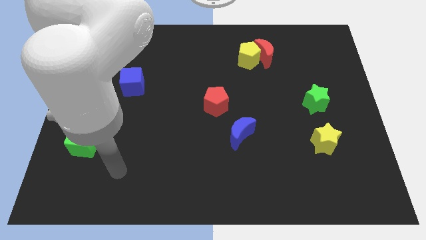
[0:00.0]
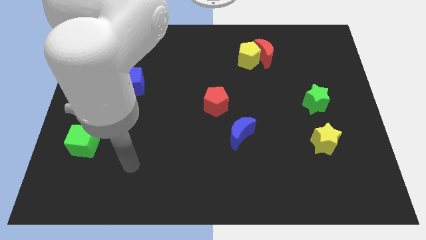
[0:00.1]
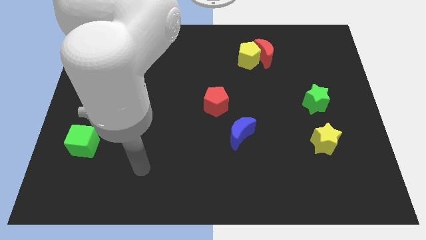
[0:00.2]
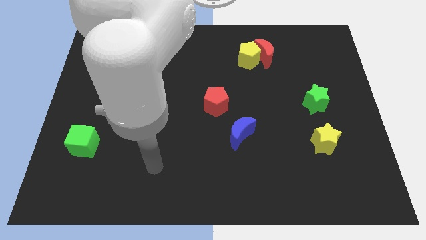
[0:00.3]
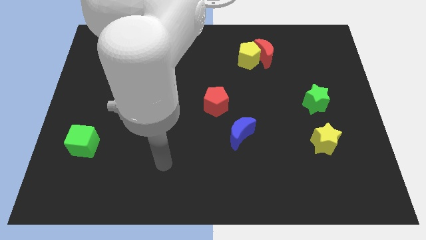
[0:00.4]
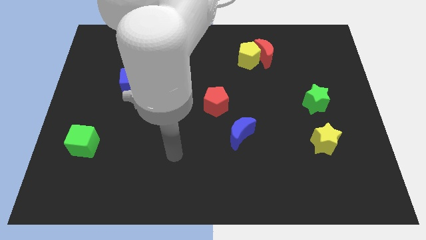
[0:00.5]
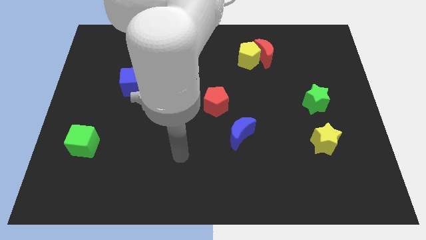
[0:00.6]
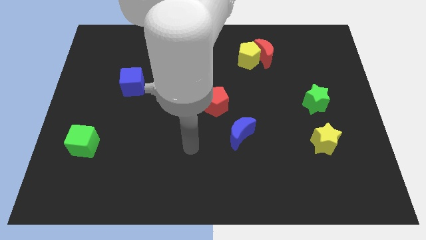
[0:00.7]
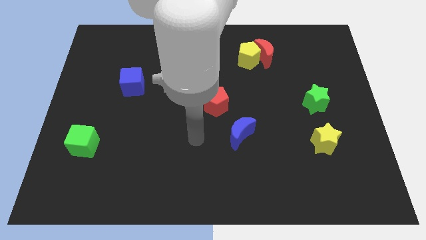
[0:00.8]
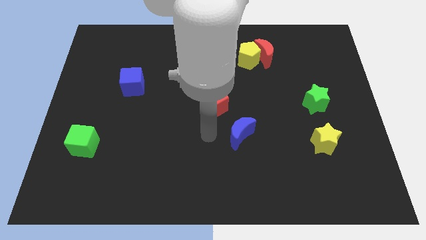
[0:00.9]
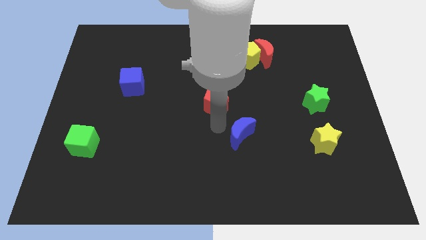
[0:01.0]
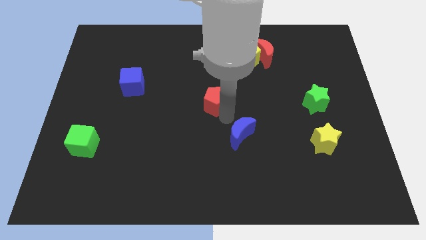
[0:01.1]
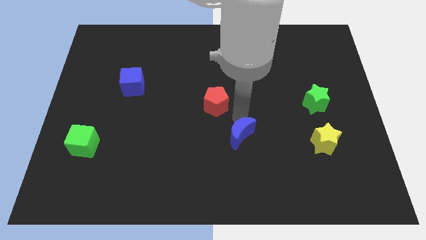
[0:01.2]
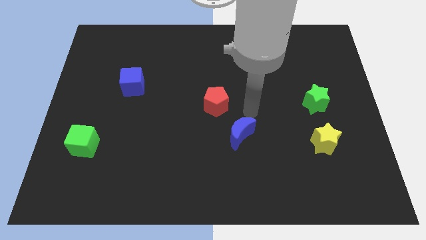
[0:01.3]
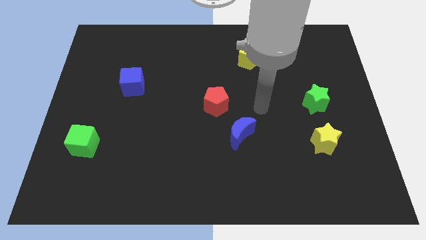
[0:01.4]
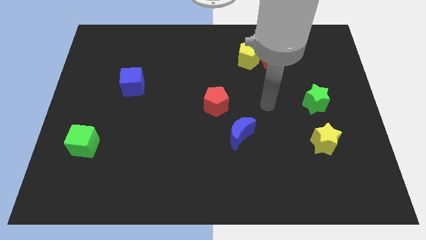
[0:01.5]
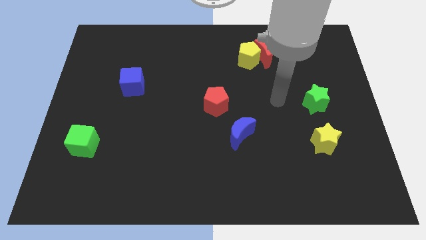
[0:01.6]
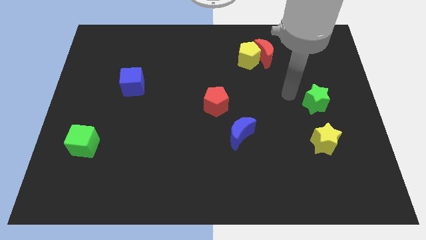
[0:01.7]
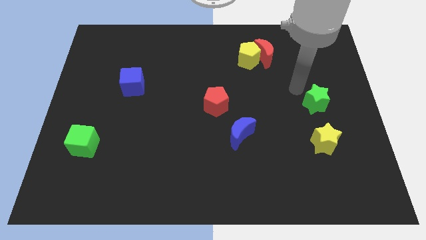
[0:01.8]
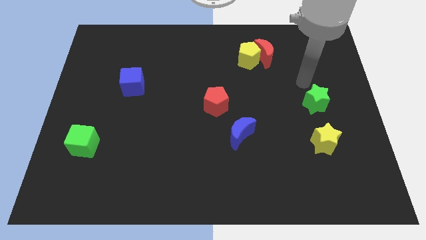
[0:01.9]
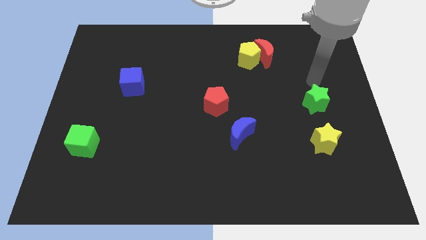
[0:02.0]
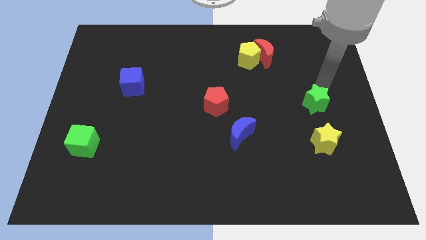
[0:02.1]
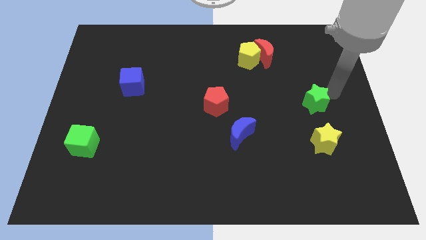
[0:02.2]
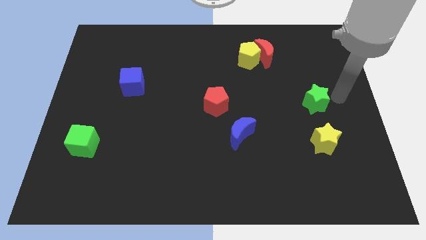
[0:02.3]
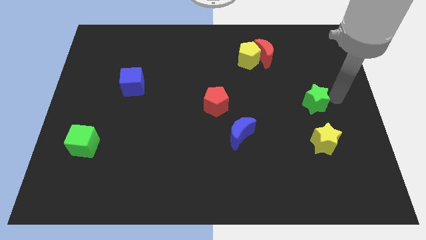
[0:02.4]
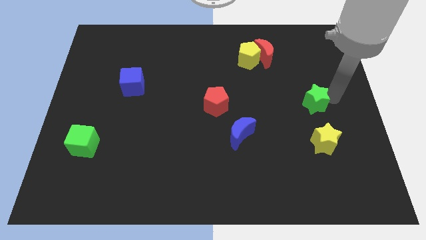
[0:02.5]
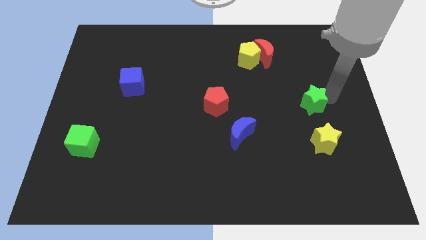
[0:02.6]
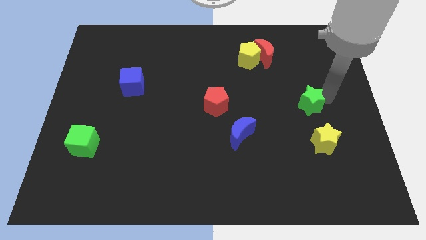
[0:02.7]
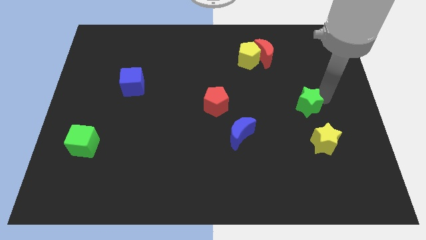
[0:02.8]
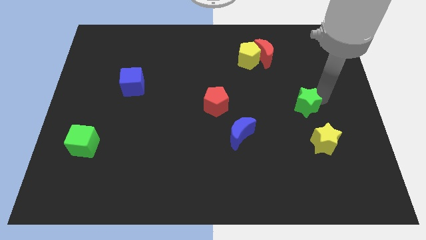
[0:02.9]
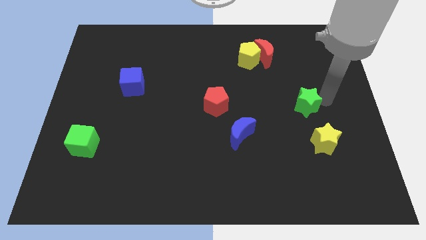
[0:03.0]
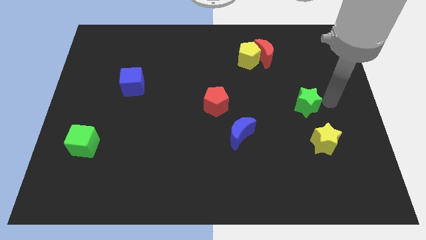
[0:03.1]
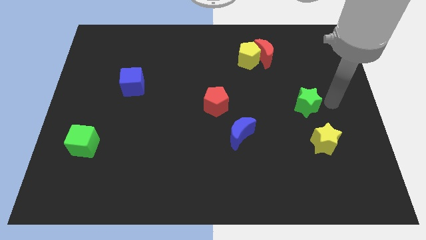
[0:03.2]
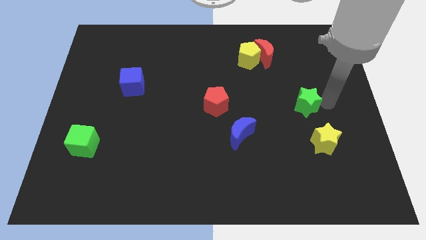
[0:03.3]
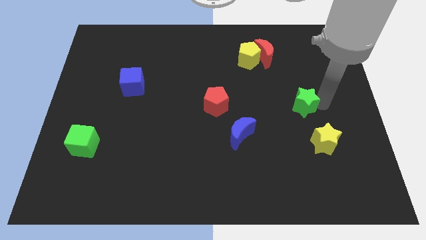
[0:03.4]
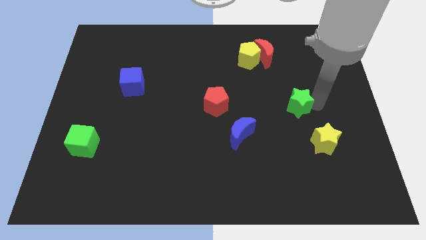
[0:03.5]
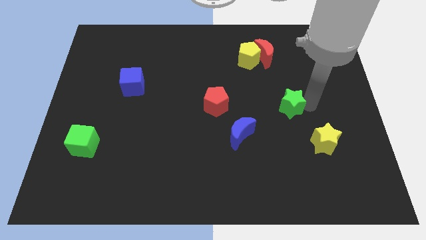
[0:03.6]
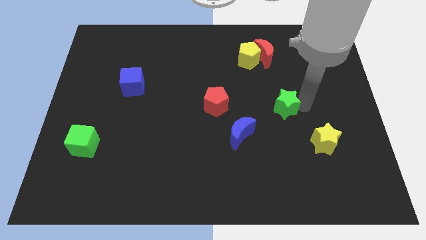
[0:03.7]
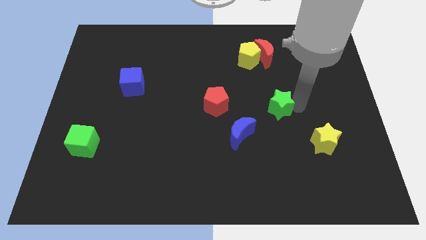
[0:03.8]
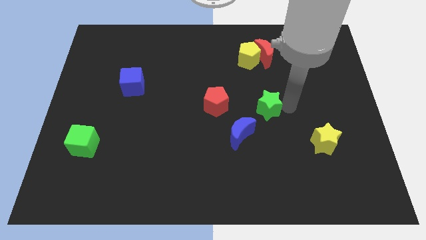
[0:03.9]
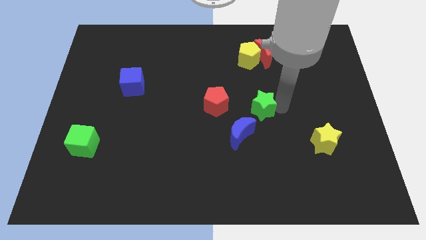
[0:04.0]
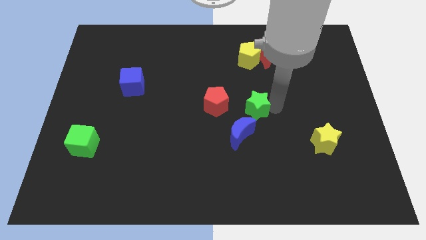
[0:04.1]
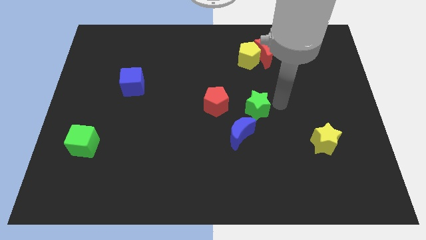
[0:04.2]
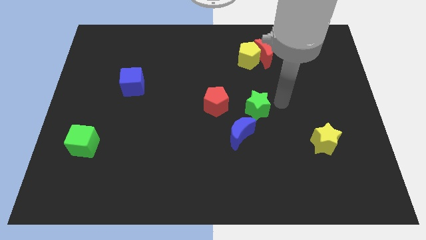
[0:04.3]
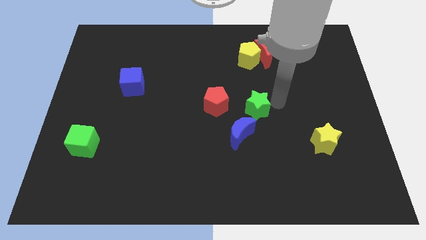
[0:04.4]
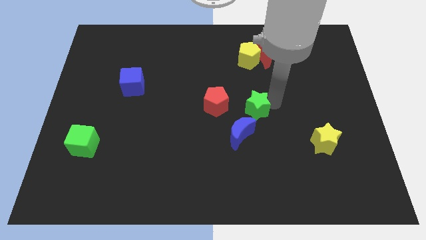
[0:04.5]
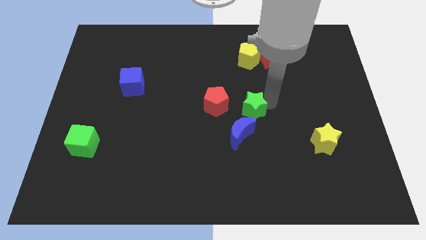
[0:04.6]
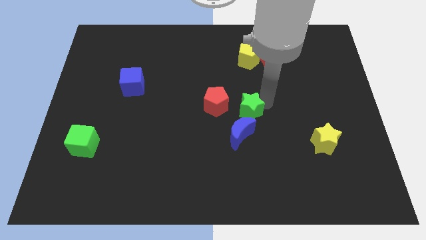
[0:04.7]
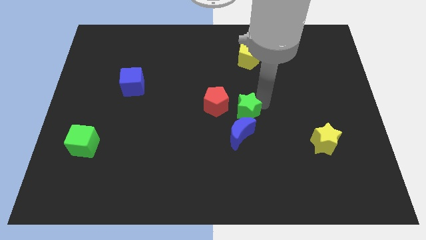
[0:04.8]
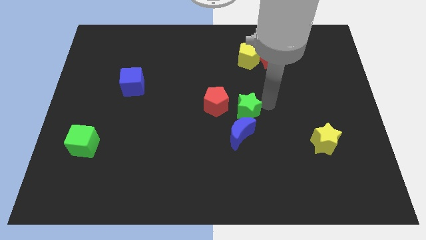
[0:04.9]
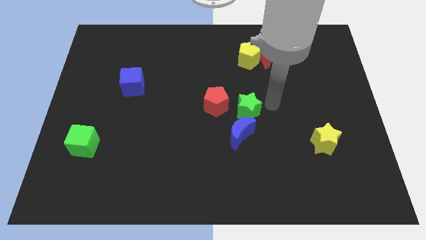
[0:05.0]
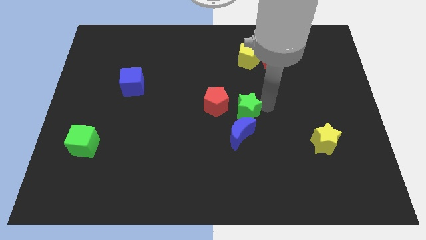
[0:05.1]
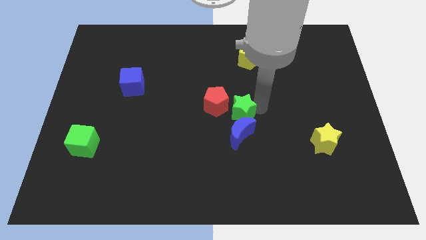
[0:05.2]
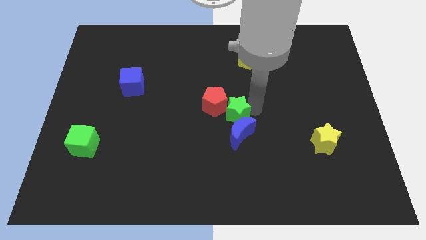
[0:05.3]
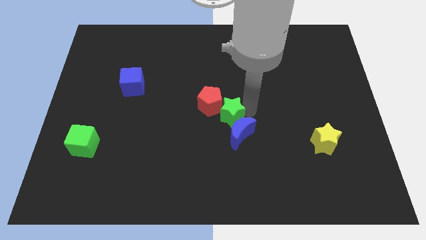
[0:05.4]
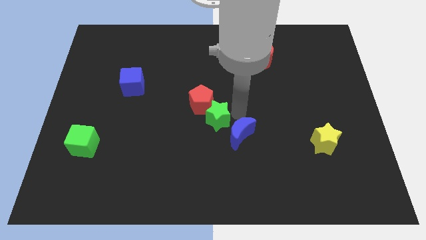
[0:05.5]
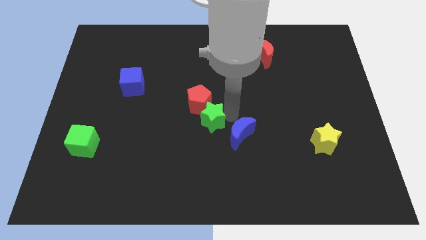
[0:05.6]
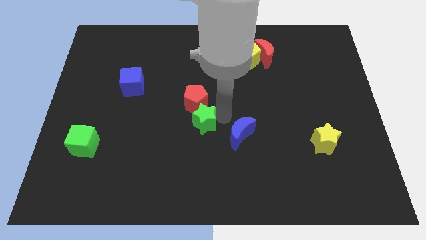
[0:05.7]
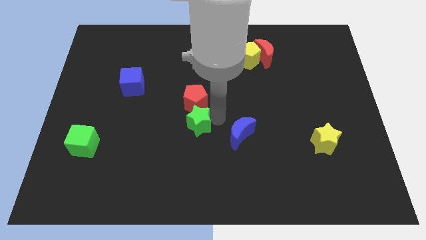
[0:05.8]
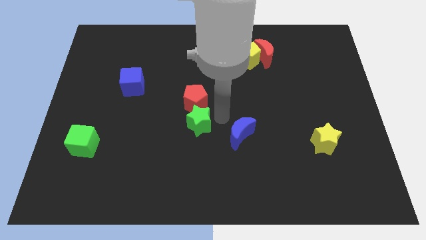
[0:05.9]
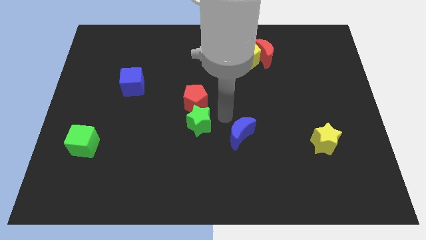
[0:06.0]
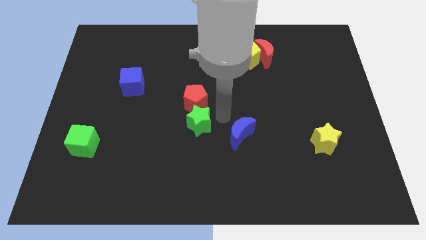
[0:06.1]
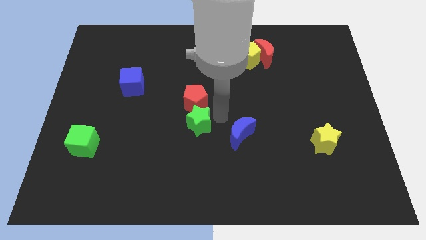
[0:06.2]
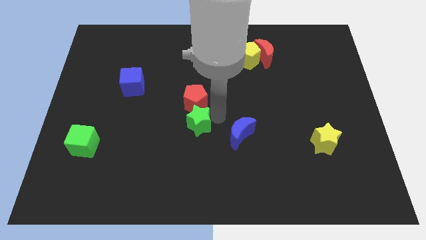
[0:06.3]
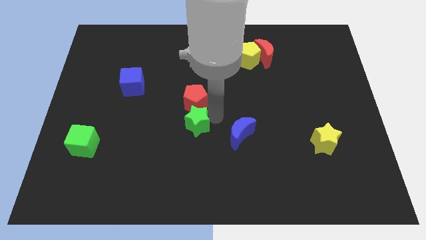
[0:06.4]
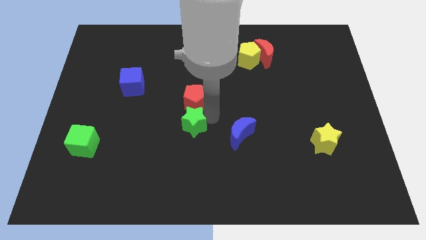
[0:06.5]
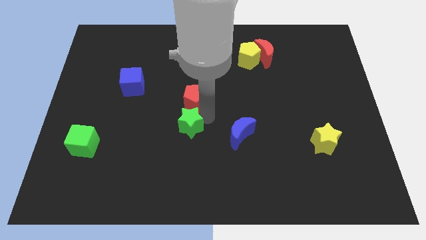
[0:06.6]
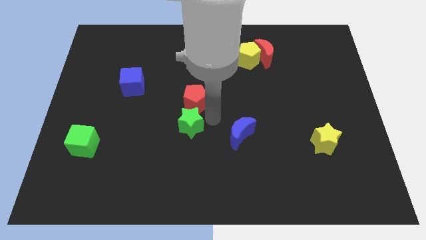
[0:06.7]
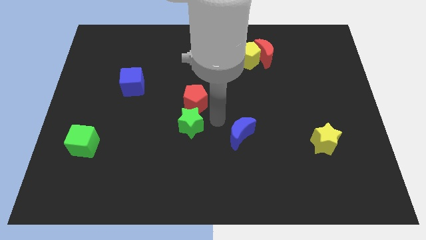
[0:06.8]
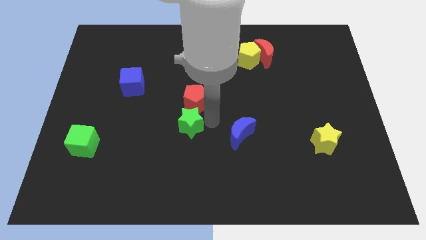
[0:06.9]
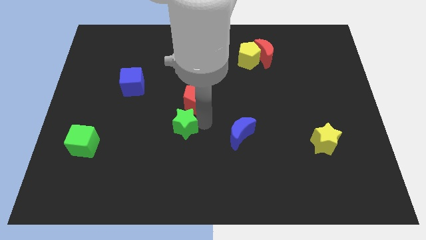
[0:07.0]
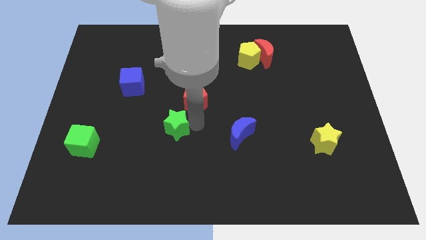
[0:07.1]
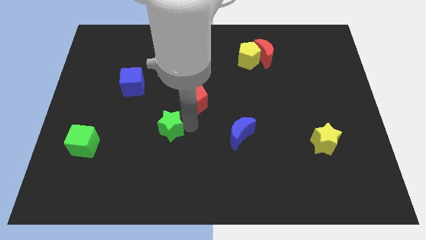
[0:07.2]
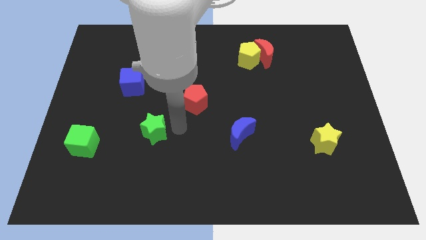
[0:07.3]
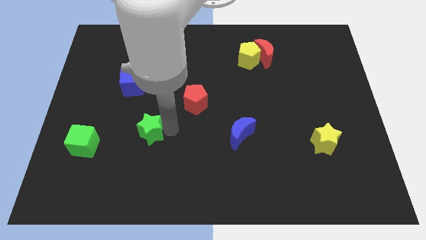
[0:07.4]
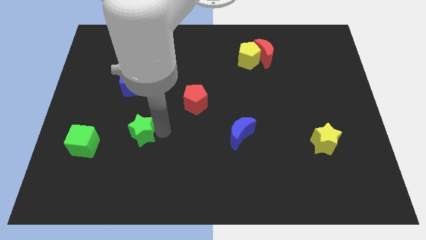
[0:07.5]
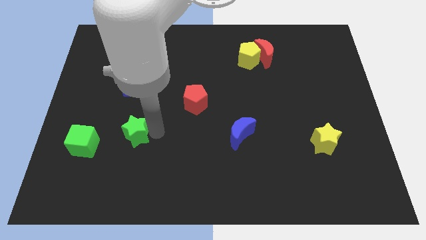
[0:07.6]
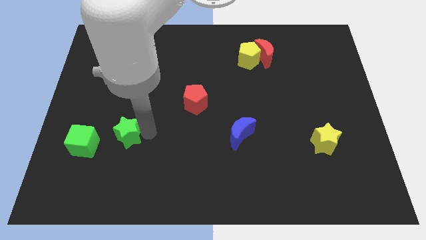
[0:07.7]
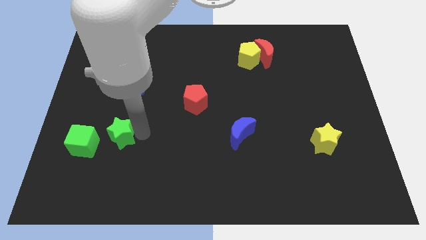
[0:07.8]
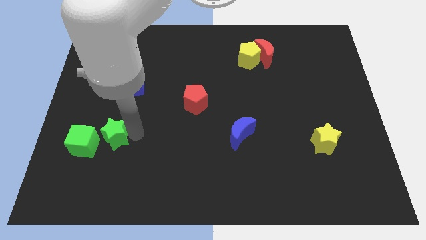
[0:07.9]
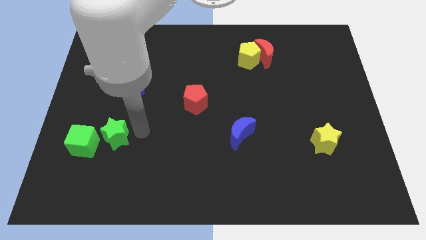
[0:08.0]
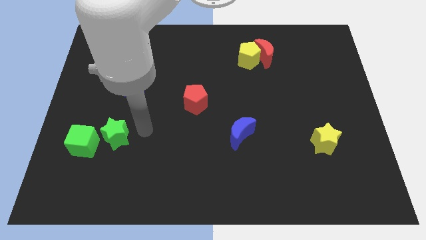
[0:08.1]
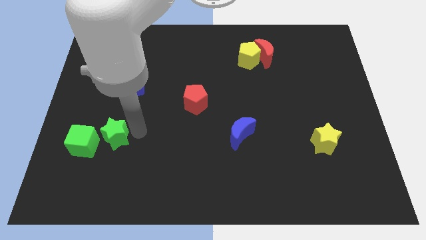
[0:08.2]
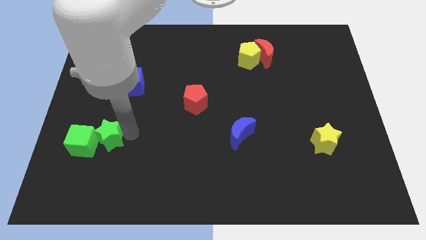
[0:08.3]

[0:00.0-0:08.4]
push the green star close to the green cube
